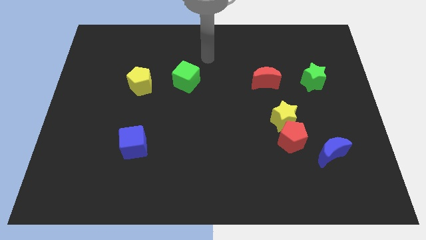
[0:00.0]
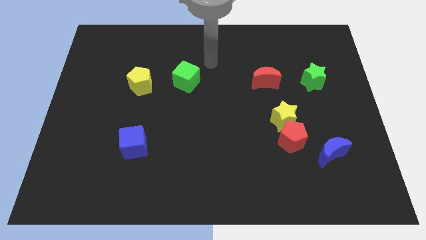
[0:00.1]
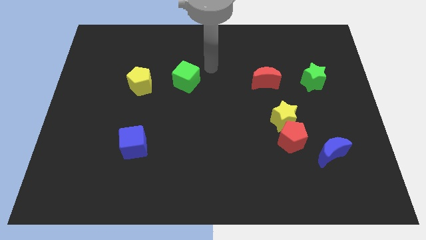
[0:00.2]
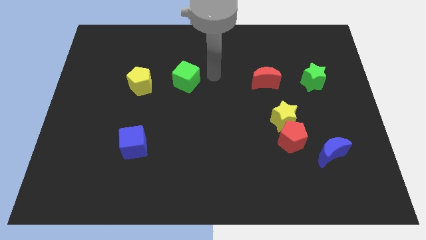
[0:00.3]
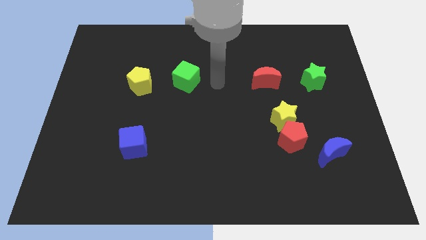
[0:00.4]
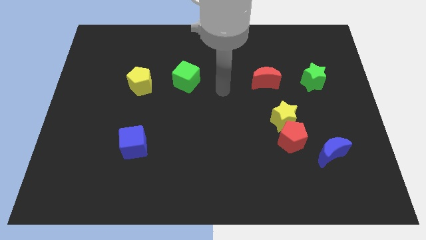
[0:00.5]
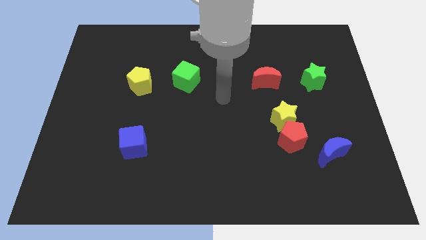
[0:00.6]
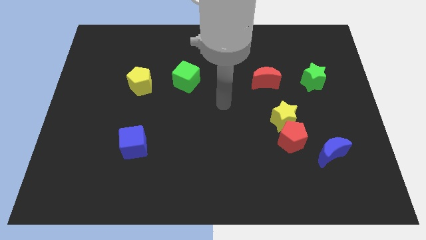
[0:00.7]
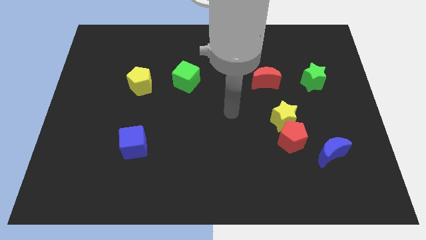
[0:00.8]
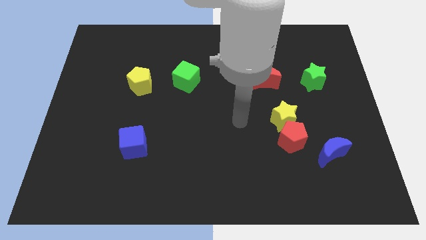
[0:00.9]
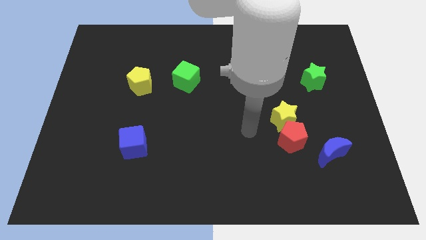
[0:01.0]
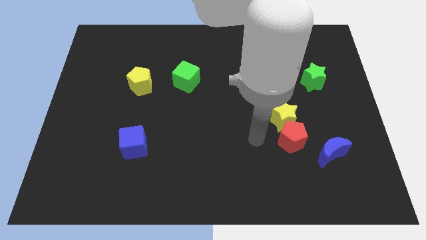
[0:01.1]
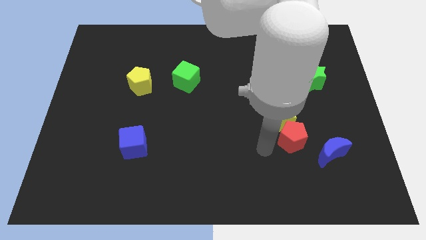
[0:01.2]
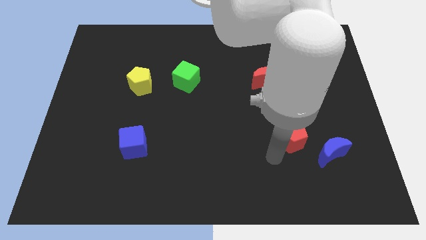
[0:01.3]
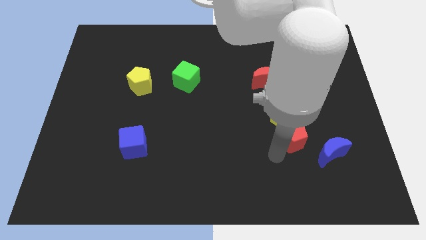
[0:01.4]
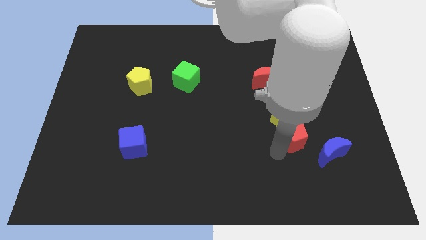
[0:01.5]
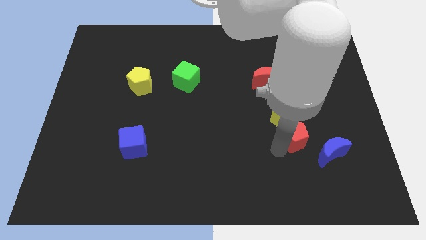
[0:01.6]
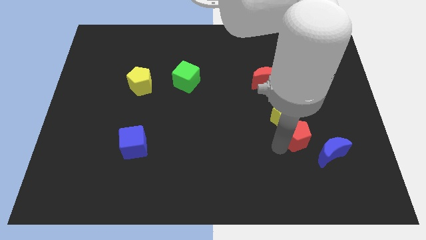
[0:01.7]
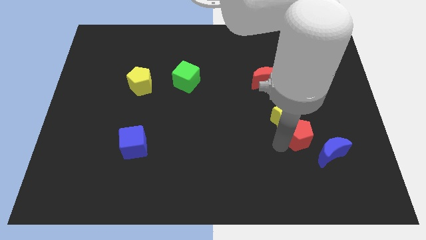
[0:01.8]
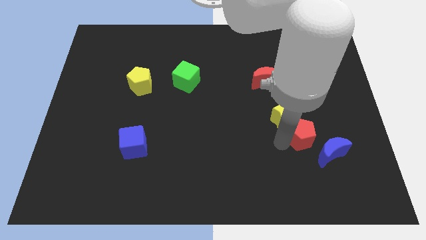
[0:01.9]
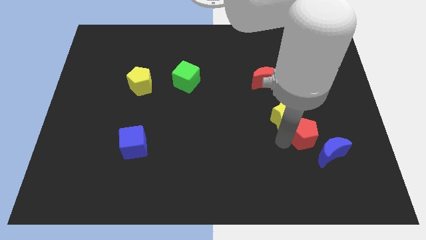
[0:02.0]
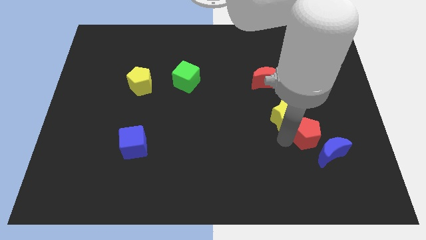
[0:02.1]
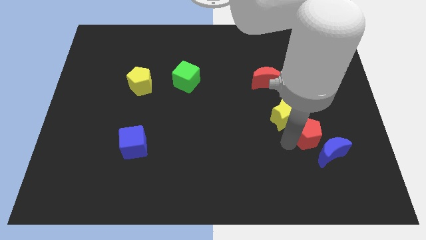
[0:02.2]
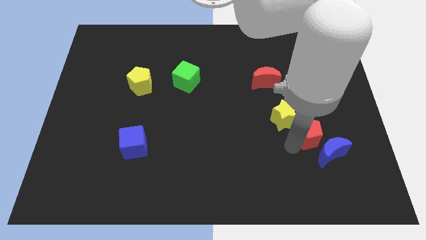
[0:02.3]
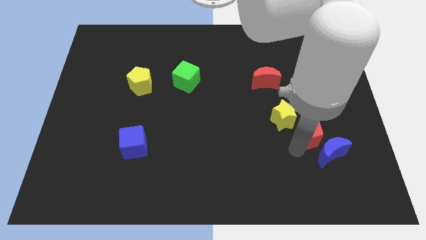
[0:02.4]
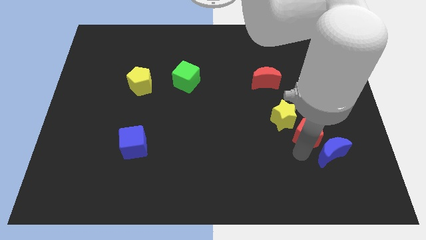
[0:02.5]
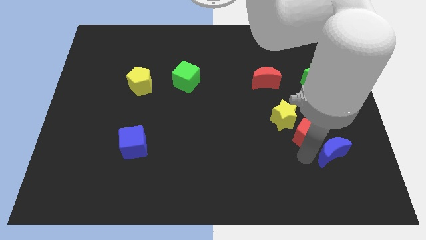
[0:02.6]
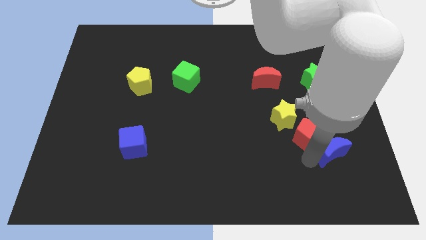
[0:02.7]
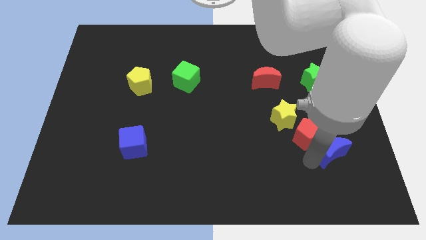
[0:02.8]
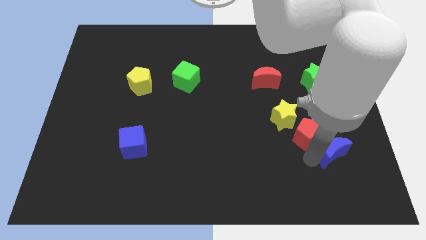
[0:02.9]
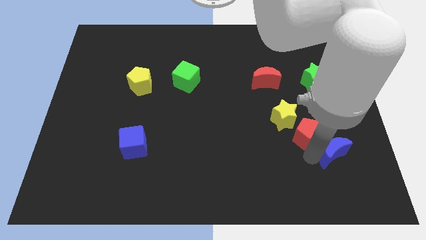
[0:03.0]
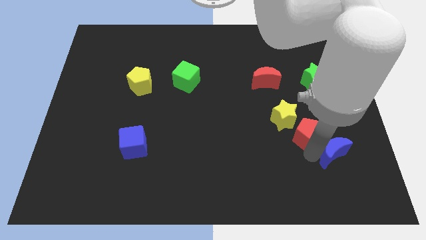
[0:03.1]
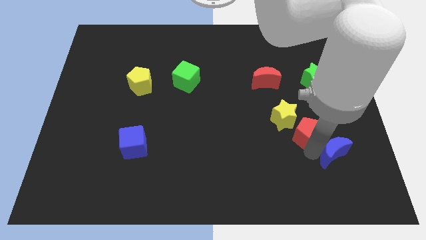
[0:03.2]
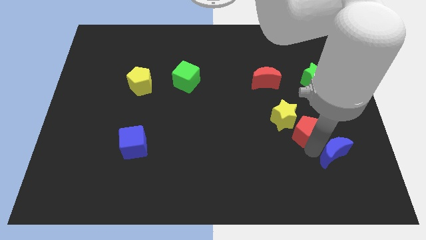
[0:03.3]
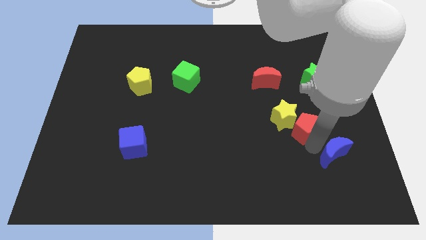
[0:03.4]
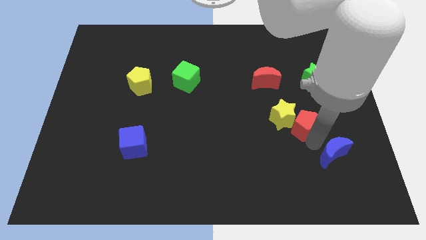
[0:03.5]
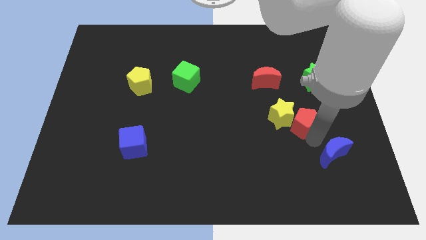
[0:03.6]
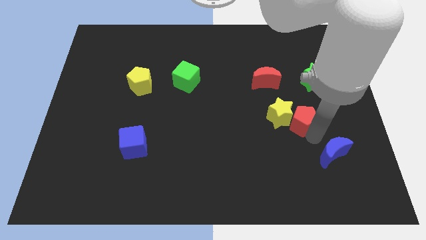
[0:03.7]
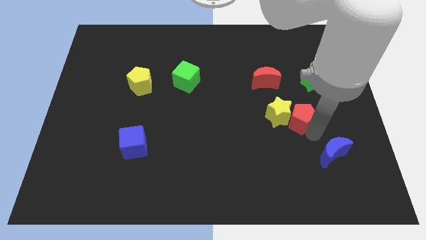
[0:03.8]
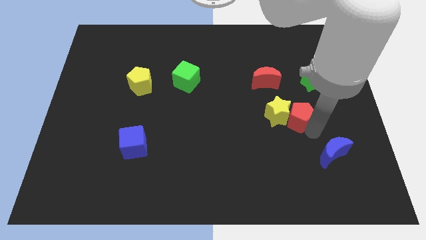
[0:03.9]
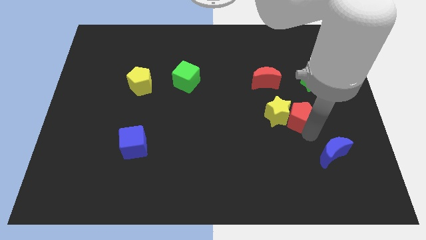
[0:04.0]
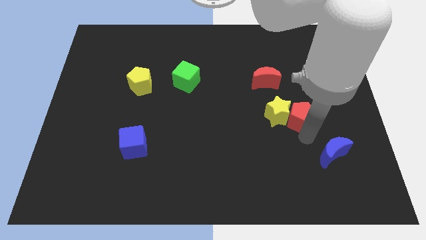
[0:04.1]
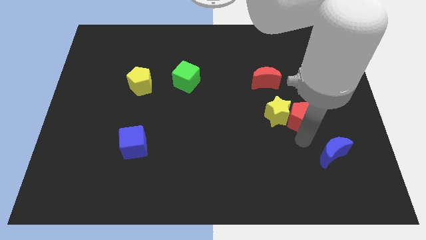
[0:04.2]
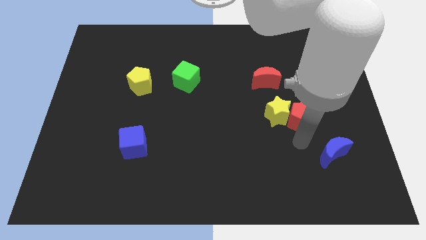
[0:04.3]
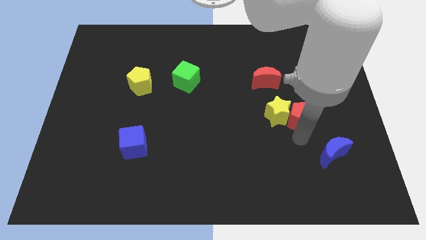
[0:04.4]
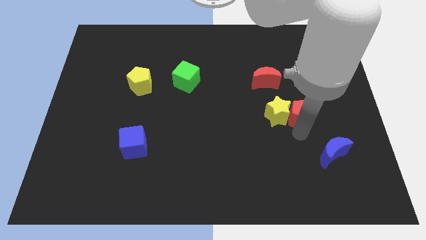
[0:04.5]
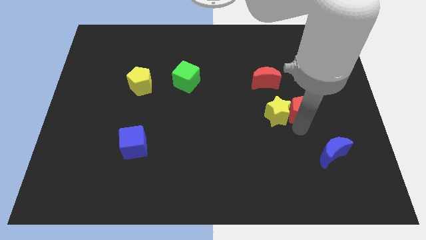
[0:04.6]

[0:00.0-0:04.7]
slide the red pentagon up slightly

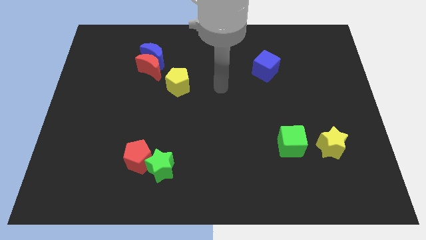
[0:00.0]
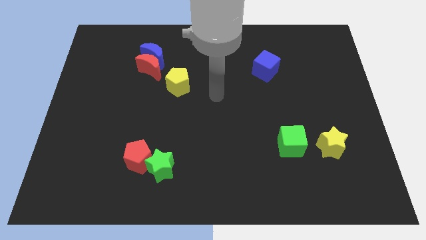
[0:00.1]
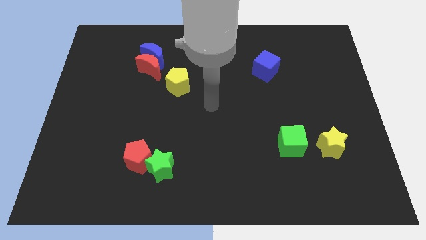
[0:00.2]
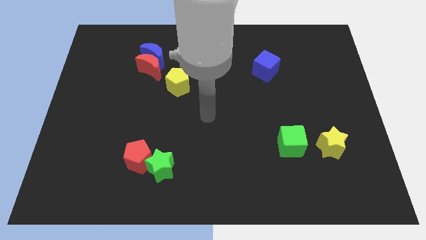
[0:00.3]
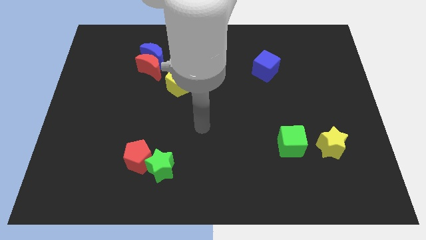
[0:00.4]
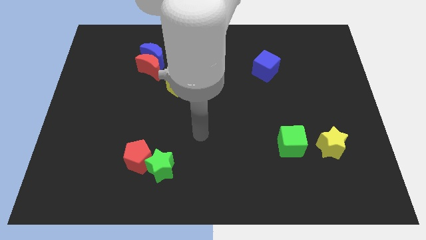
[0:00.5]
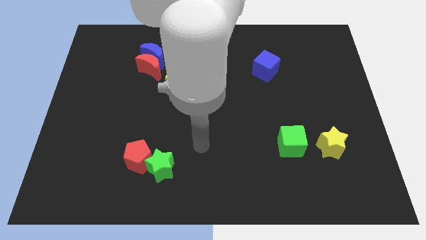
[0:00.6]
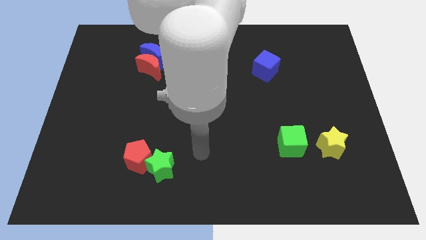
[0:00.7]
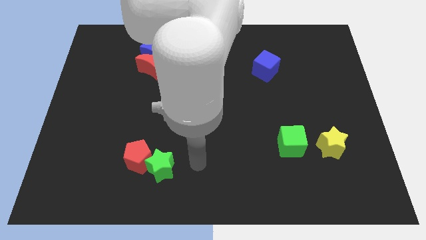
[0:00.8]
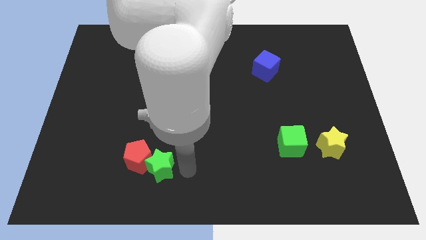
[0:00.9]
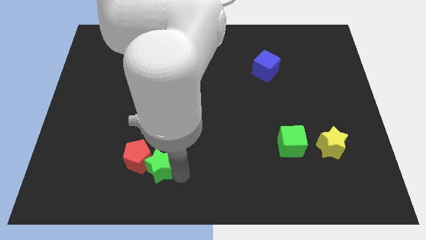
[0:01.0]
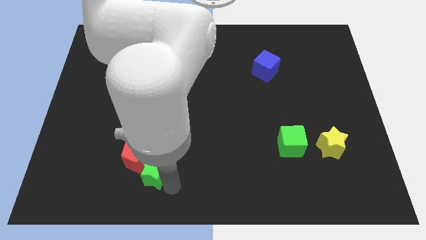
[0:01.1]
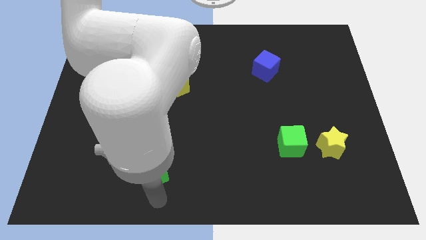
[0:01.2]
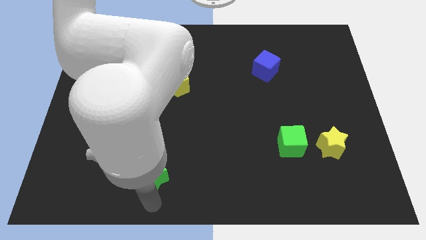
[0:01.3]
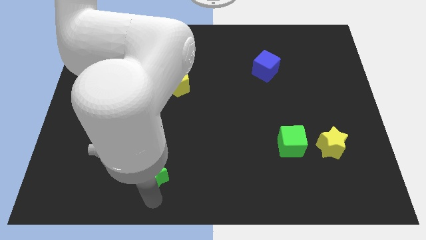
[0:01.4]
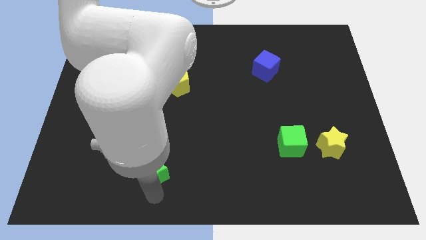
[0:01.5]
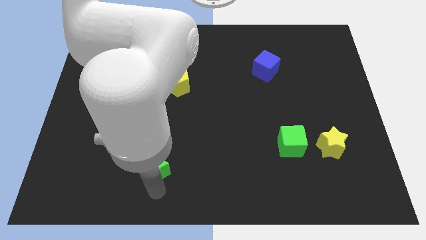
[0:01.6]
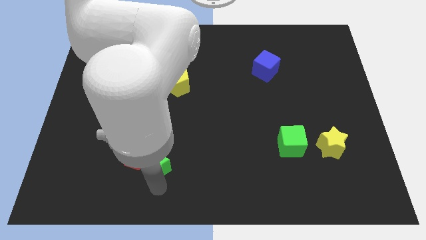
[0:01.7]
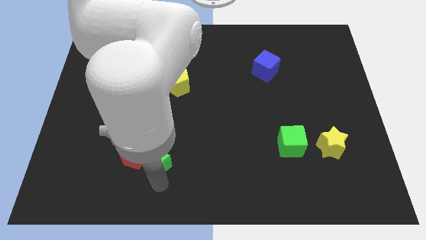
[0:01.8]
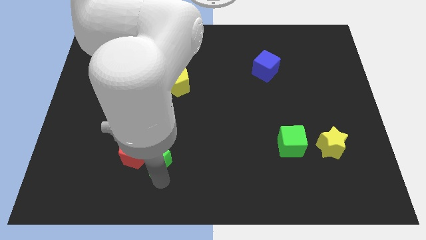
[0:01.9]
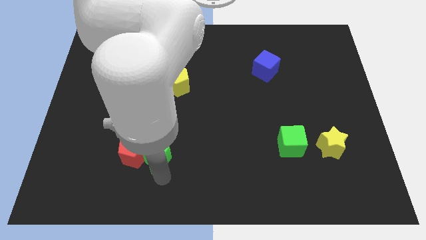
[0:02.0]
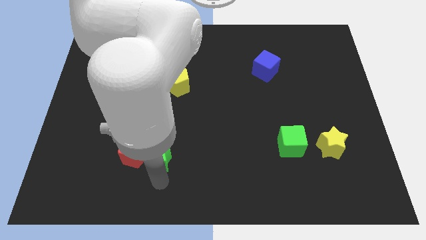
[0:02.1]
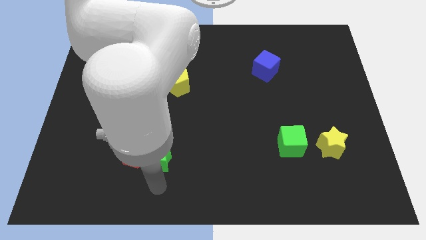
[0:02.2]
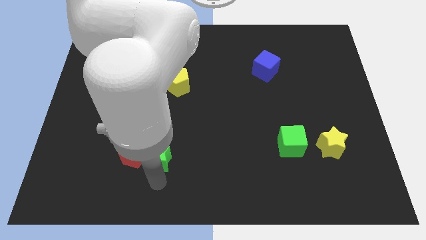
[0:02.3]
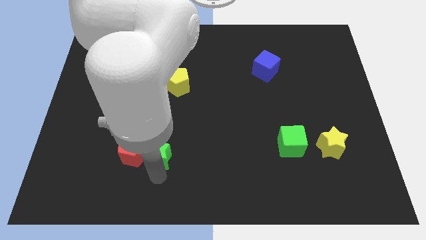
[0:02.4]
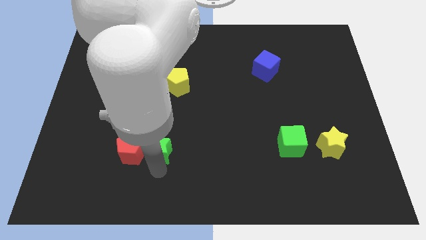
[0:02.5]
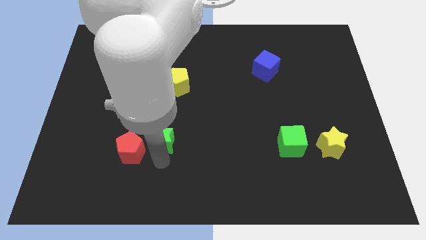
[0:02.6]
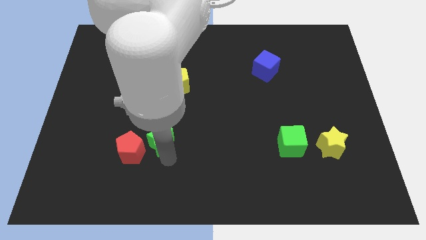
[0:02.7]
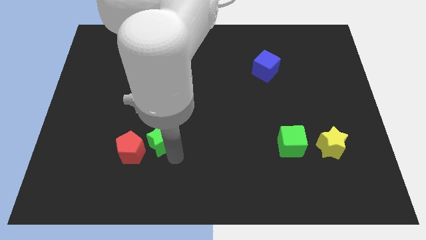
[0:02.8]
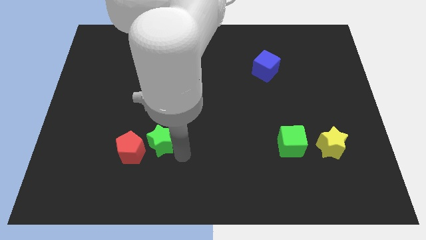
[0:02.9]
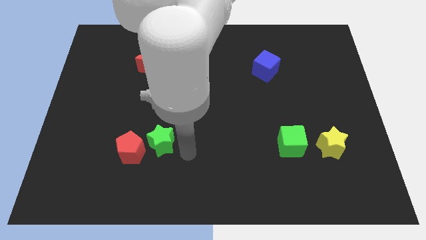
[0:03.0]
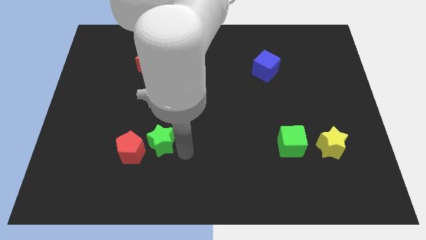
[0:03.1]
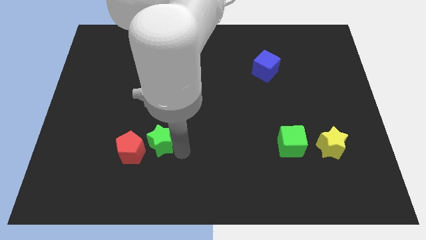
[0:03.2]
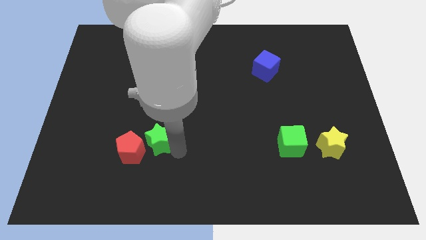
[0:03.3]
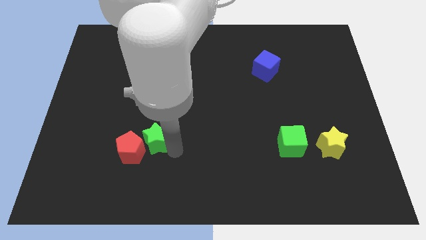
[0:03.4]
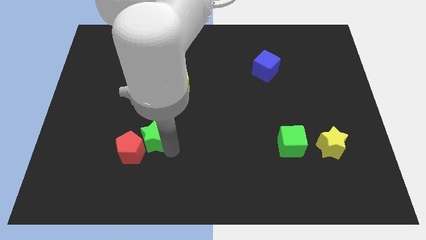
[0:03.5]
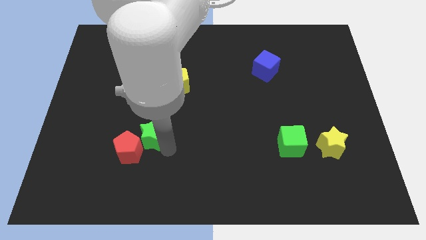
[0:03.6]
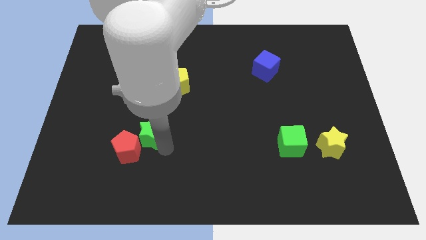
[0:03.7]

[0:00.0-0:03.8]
push the green star up and then left a bit
